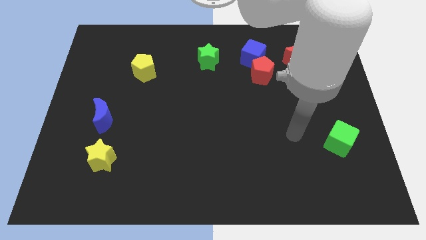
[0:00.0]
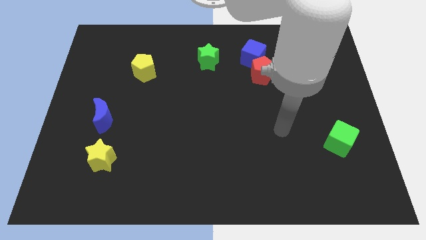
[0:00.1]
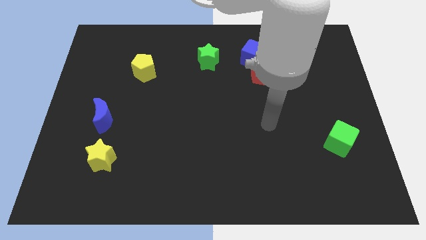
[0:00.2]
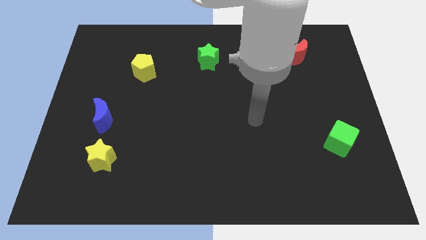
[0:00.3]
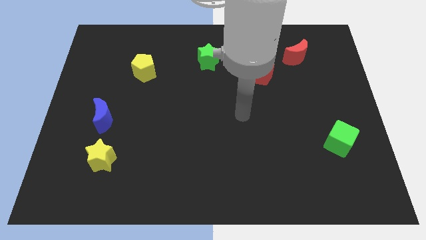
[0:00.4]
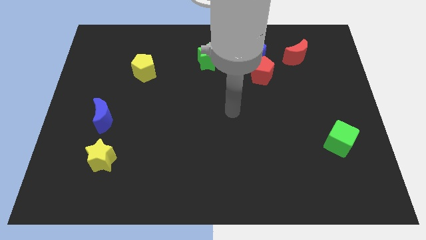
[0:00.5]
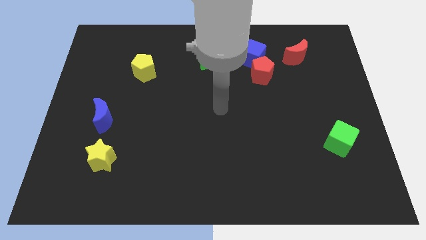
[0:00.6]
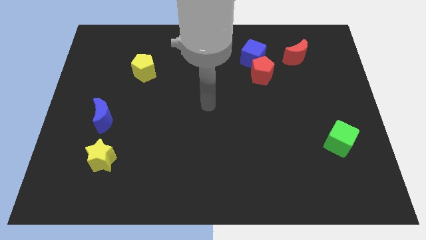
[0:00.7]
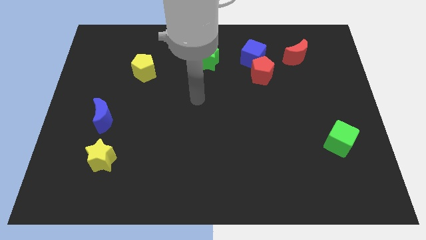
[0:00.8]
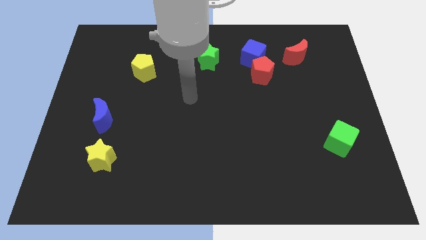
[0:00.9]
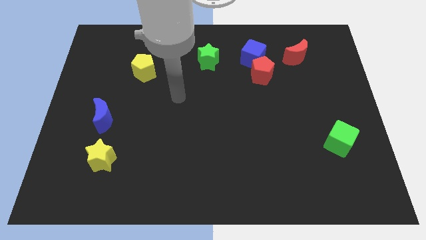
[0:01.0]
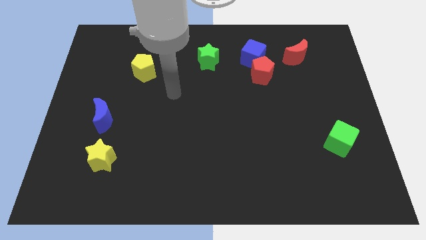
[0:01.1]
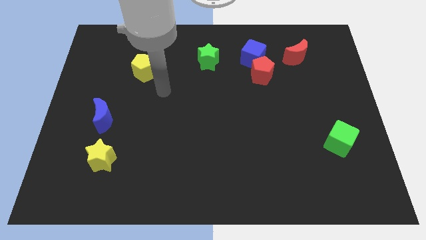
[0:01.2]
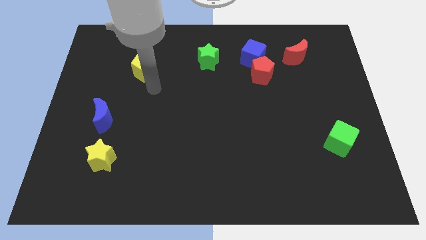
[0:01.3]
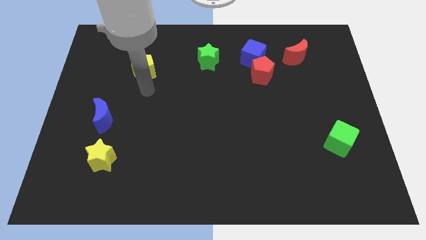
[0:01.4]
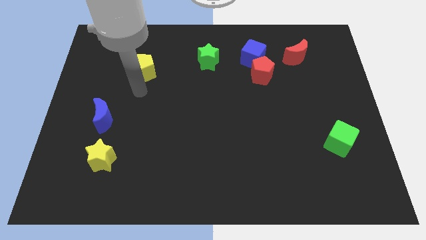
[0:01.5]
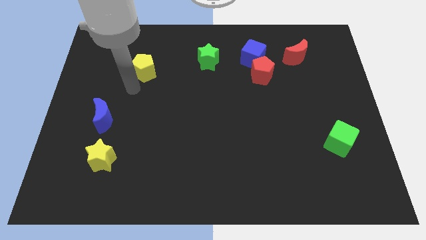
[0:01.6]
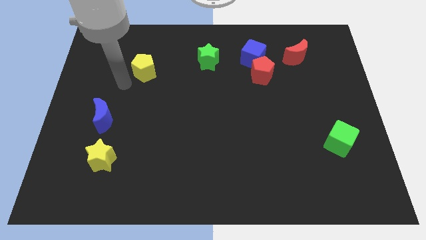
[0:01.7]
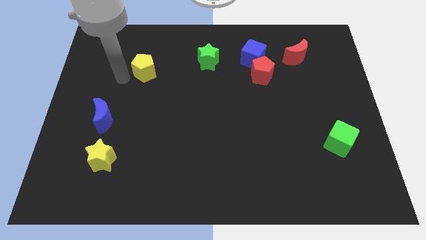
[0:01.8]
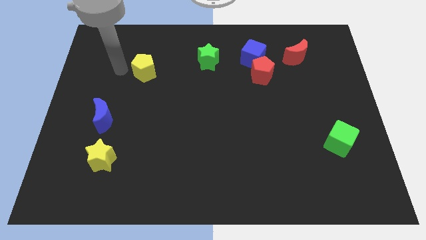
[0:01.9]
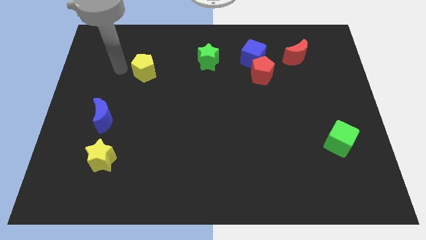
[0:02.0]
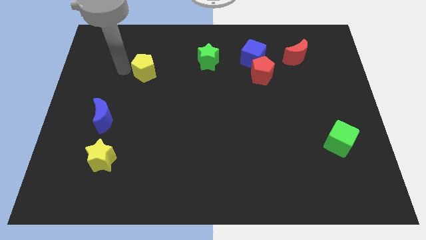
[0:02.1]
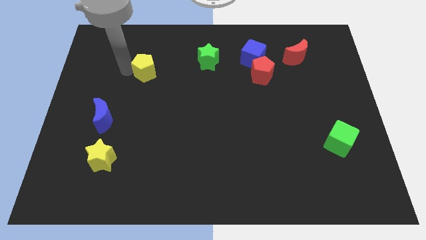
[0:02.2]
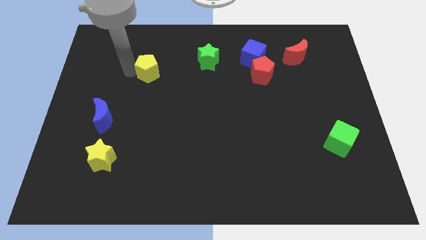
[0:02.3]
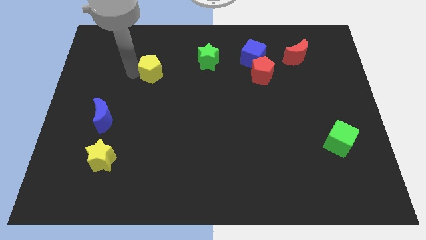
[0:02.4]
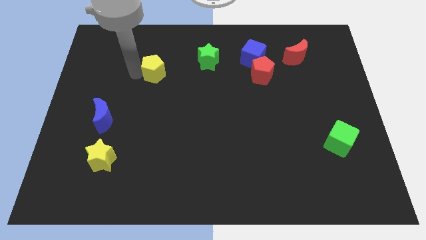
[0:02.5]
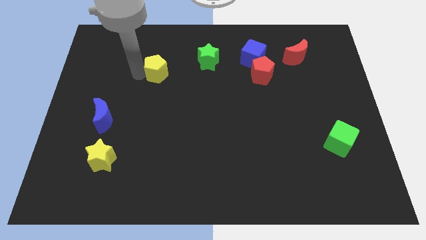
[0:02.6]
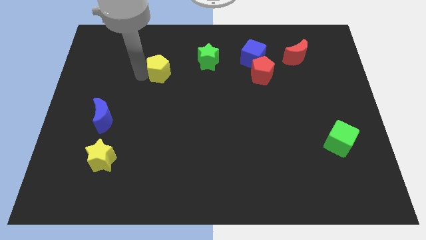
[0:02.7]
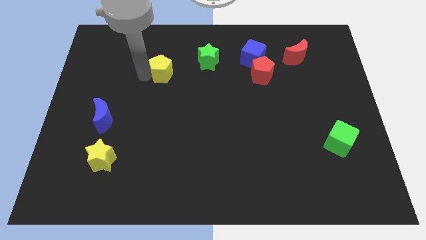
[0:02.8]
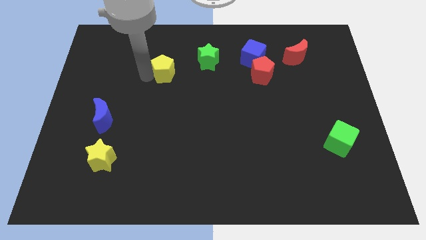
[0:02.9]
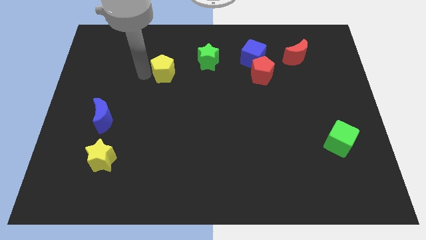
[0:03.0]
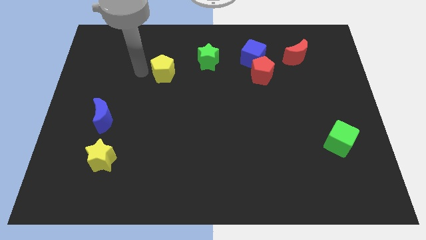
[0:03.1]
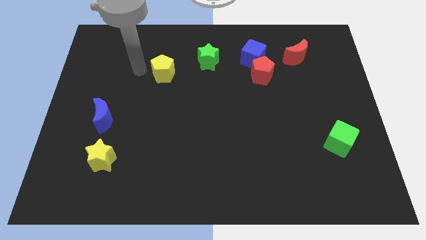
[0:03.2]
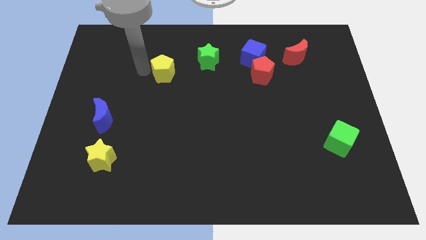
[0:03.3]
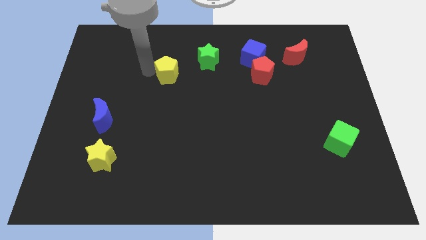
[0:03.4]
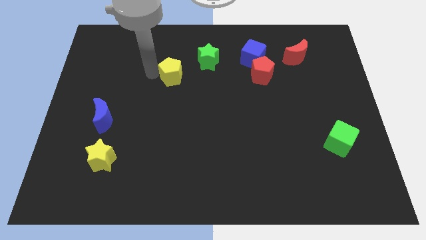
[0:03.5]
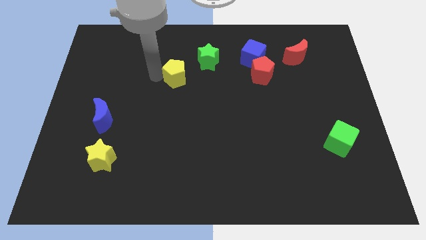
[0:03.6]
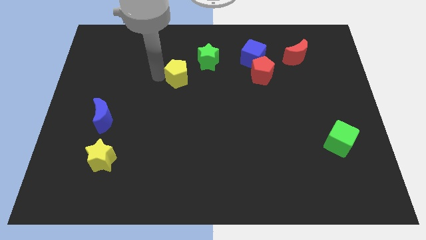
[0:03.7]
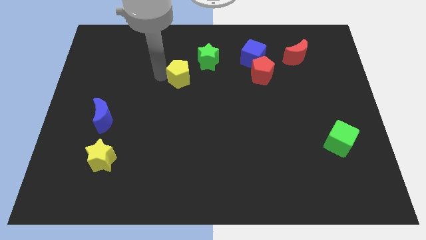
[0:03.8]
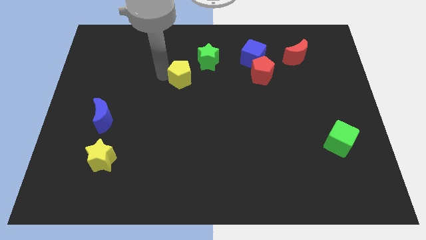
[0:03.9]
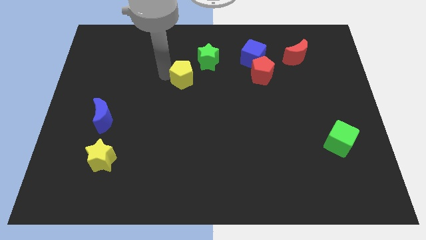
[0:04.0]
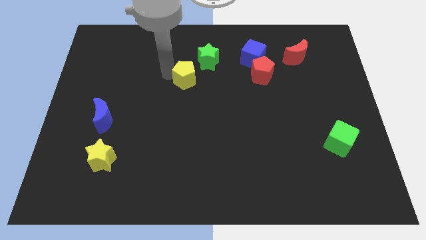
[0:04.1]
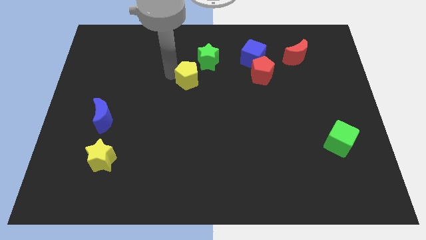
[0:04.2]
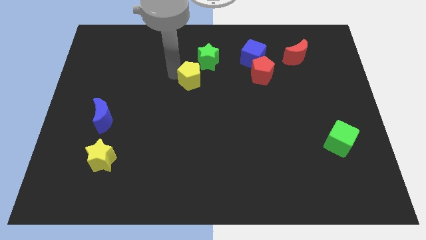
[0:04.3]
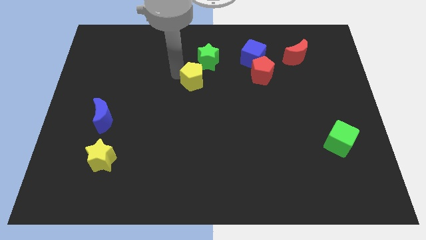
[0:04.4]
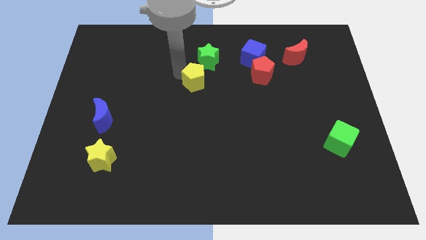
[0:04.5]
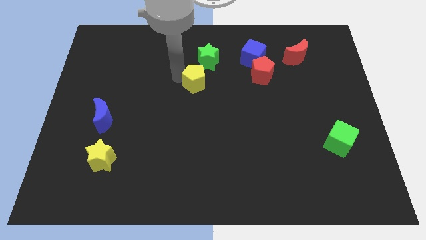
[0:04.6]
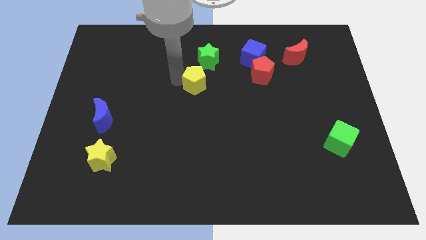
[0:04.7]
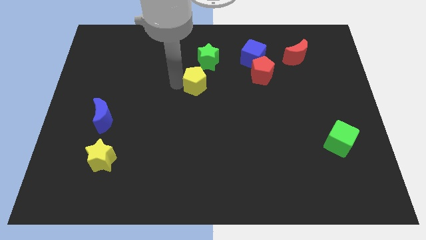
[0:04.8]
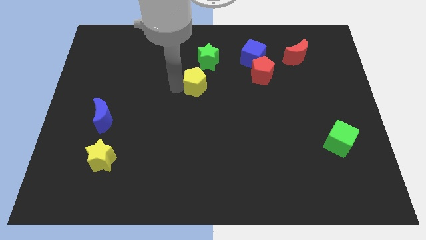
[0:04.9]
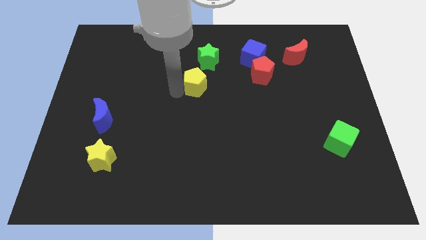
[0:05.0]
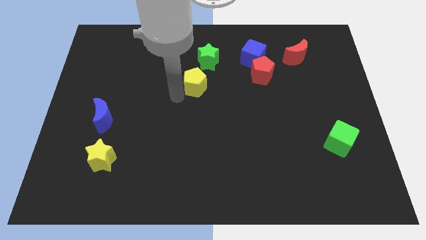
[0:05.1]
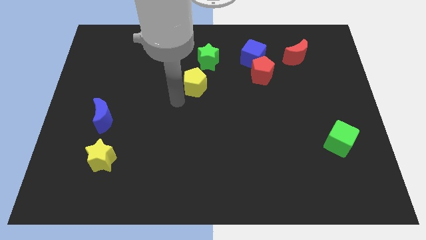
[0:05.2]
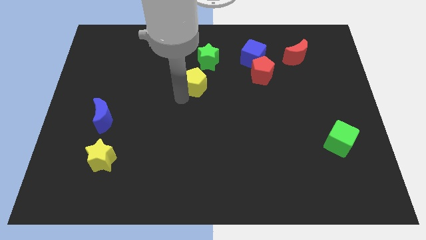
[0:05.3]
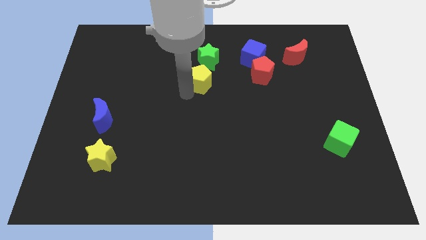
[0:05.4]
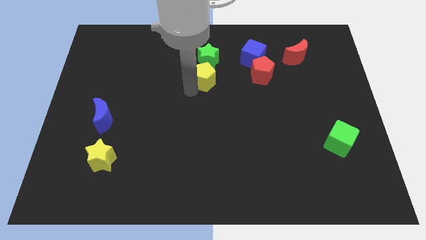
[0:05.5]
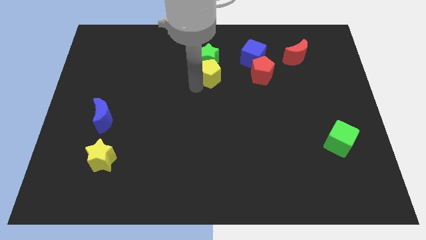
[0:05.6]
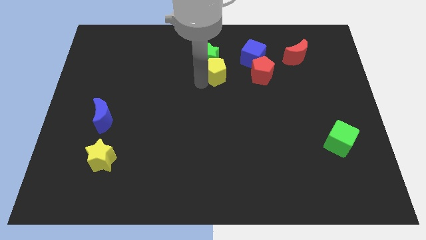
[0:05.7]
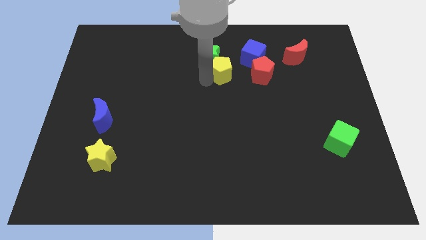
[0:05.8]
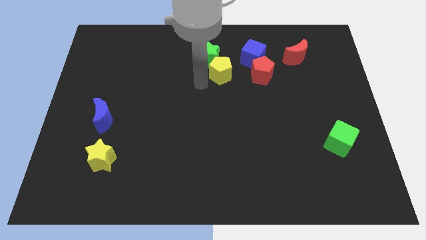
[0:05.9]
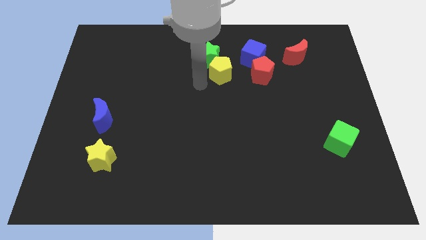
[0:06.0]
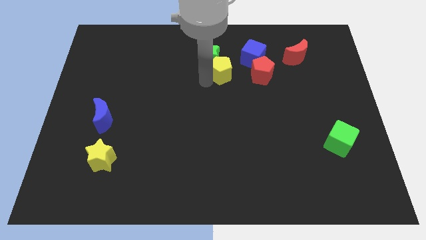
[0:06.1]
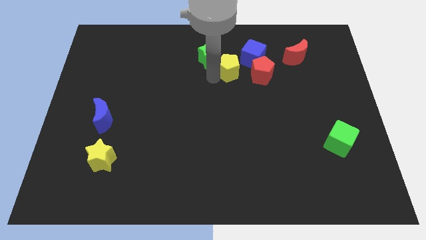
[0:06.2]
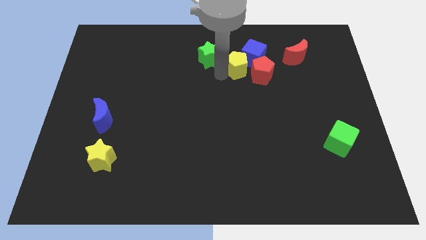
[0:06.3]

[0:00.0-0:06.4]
slide the yellow pentagon next to the blue cube

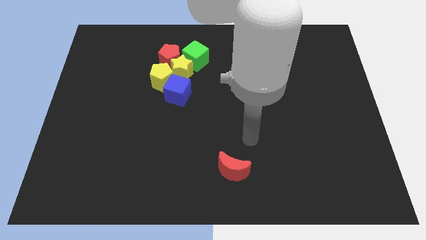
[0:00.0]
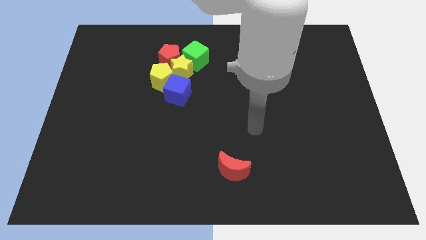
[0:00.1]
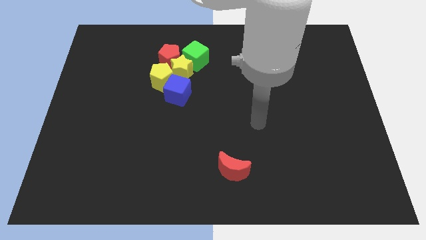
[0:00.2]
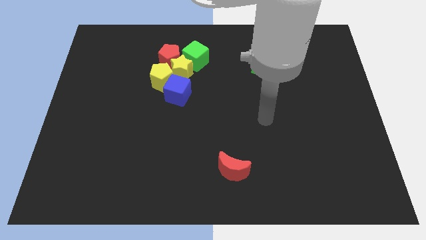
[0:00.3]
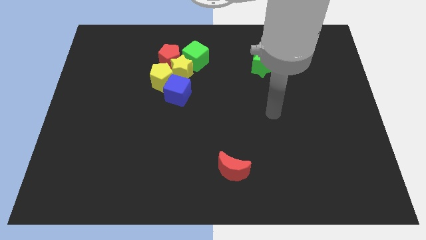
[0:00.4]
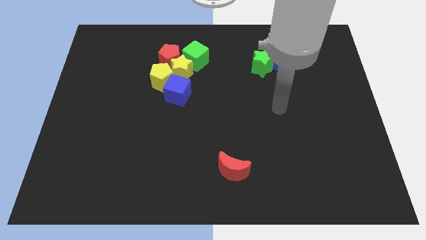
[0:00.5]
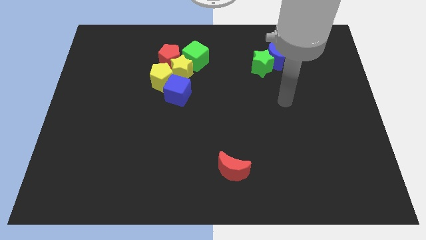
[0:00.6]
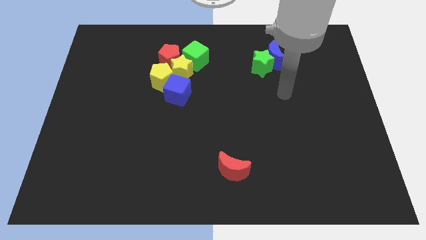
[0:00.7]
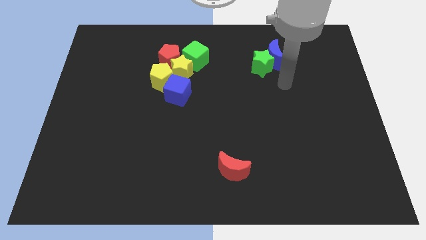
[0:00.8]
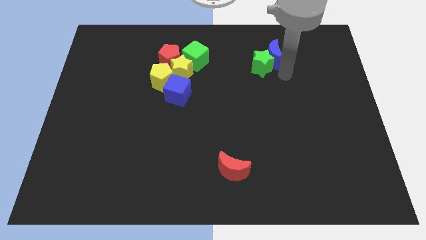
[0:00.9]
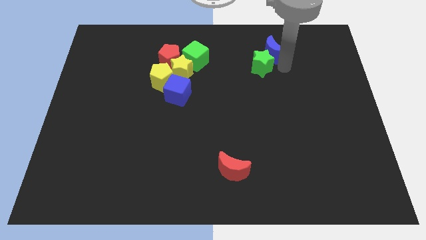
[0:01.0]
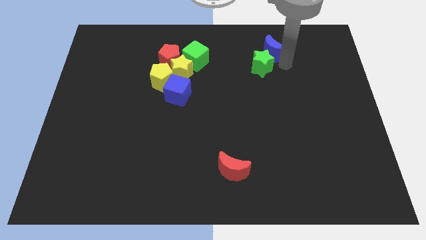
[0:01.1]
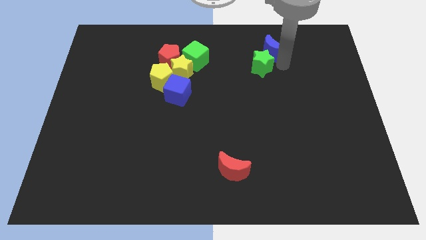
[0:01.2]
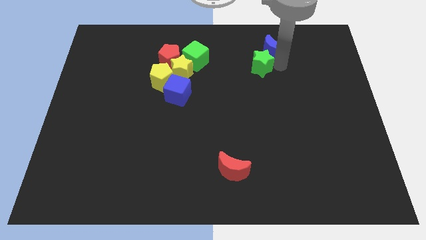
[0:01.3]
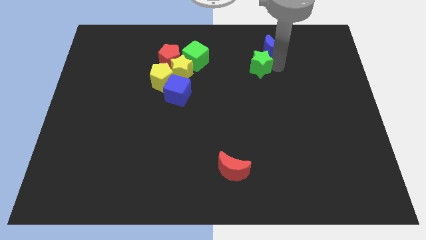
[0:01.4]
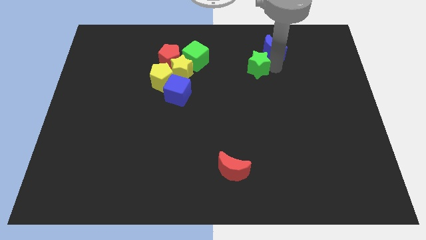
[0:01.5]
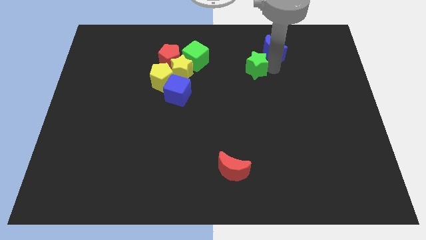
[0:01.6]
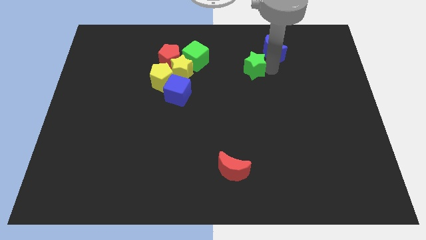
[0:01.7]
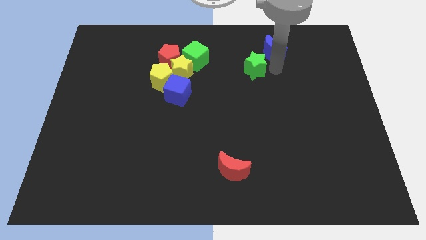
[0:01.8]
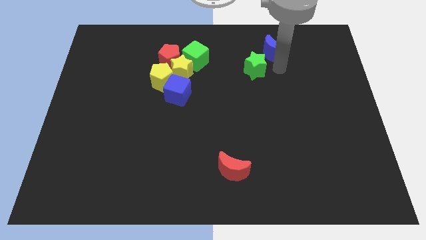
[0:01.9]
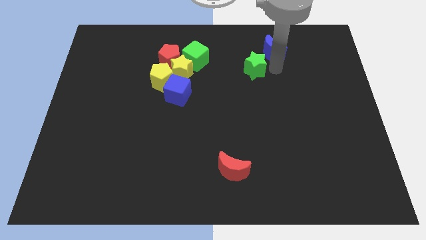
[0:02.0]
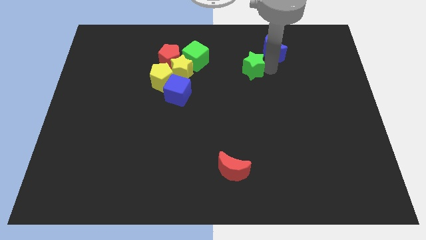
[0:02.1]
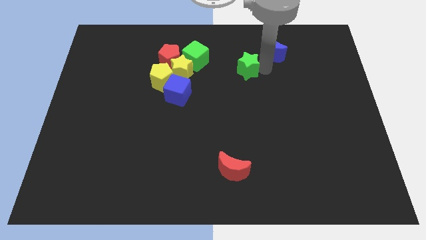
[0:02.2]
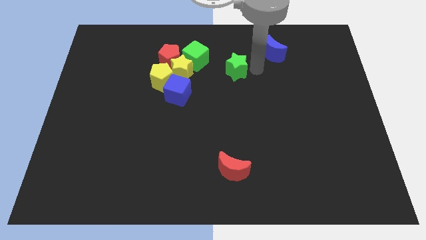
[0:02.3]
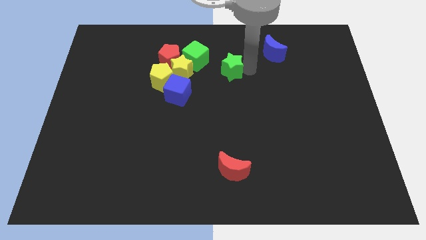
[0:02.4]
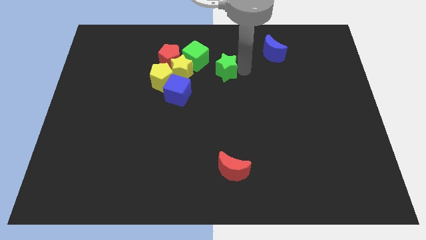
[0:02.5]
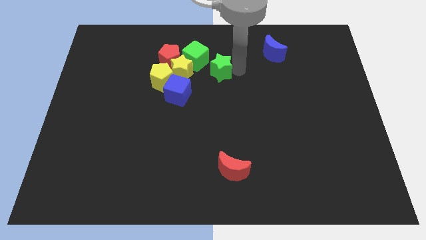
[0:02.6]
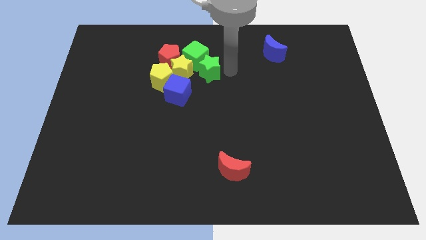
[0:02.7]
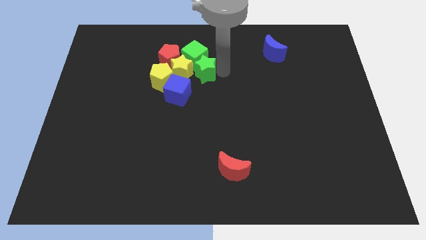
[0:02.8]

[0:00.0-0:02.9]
push the green star next to the yellow star
